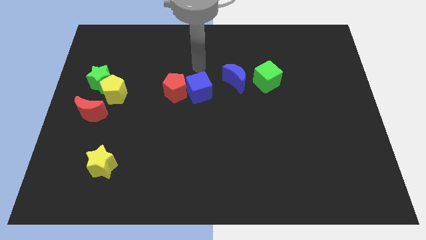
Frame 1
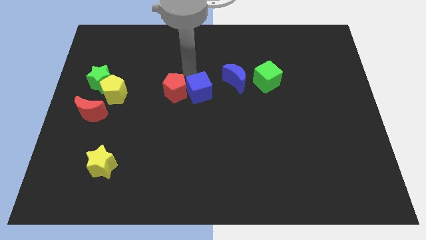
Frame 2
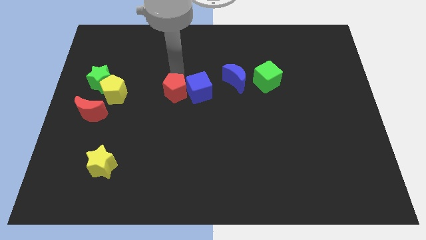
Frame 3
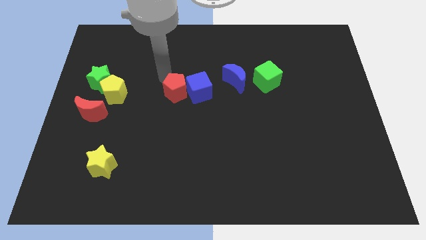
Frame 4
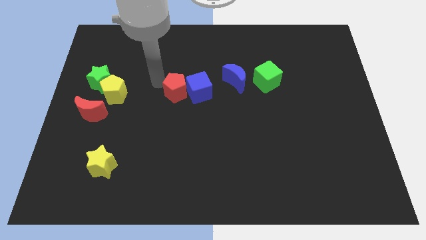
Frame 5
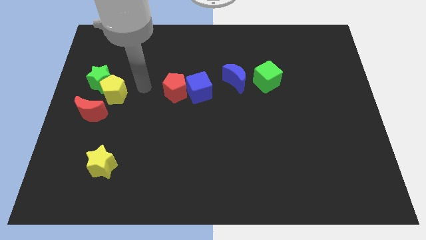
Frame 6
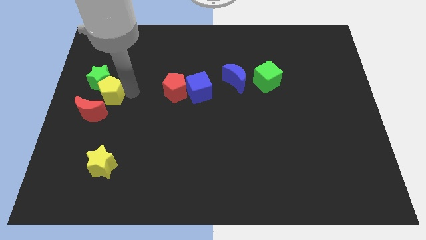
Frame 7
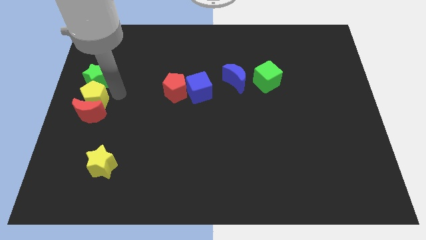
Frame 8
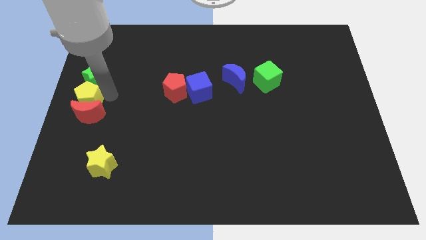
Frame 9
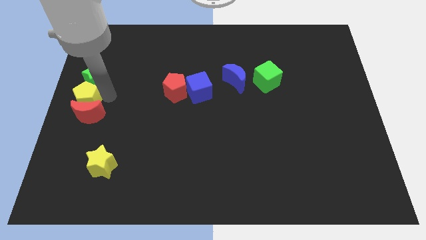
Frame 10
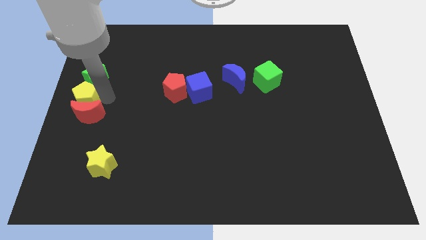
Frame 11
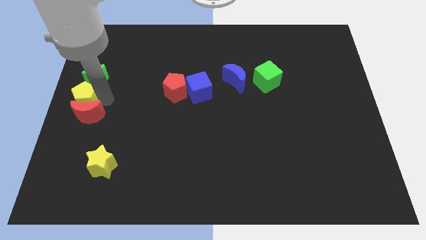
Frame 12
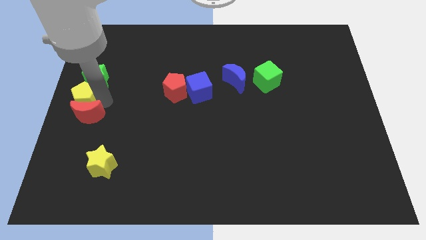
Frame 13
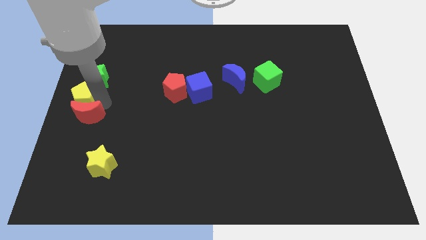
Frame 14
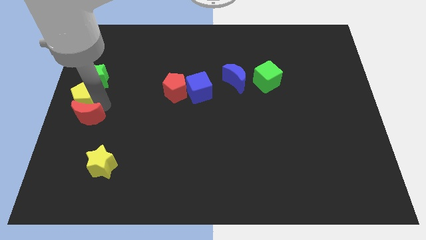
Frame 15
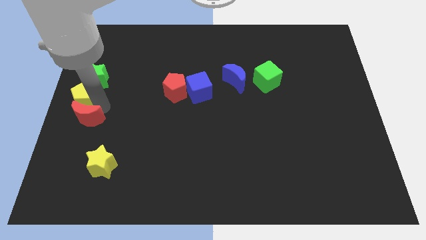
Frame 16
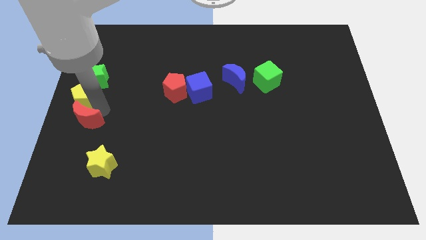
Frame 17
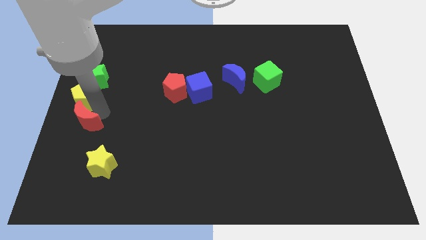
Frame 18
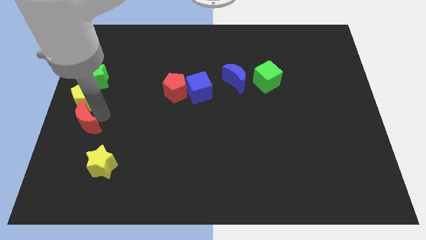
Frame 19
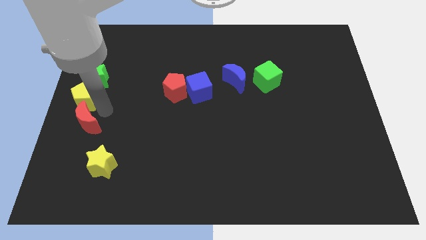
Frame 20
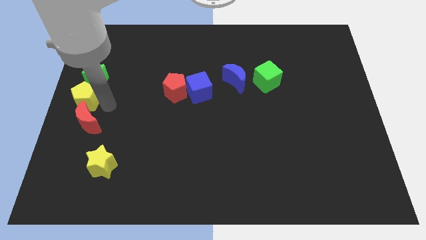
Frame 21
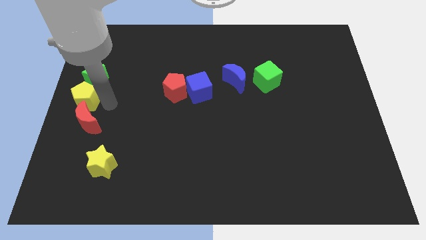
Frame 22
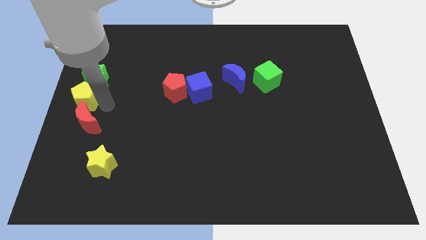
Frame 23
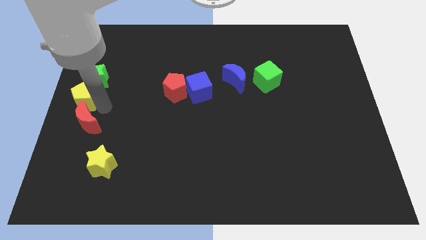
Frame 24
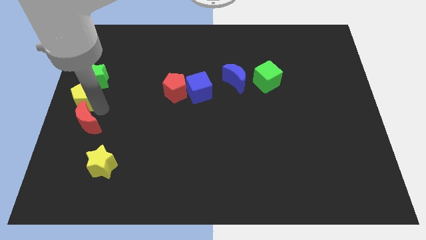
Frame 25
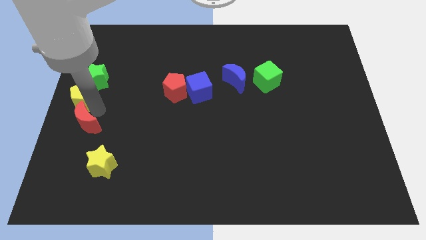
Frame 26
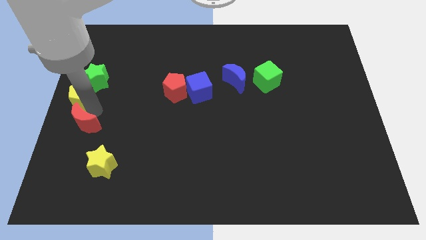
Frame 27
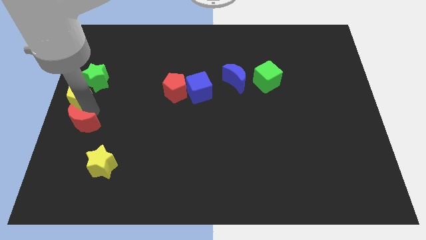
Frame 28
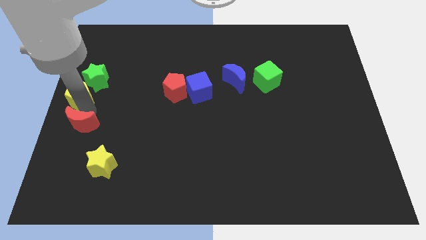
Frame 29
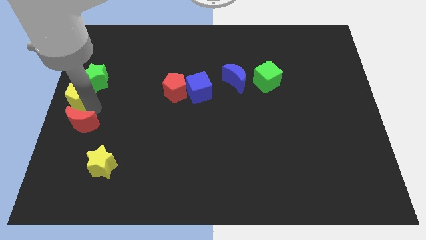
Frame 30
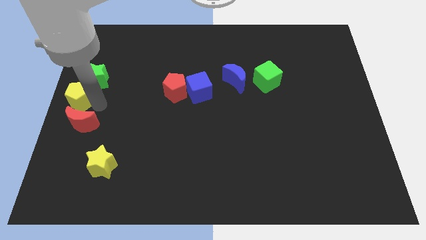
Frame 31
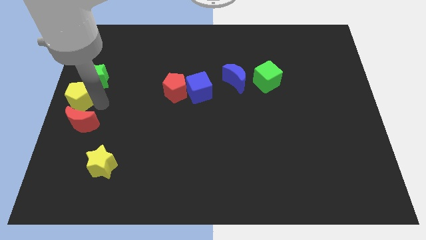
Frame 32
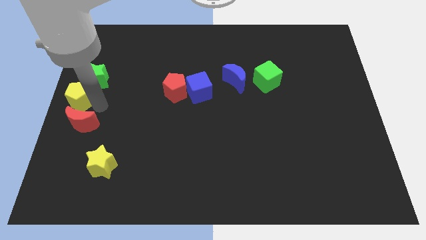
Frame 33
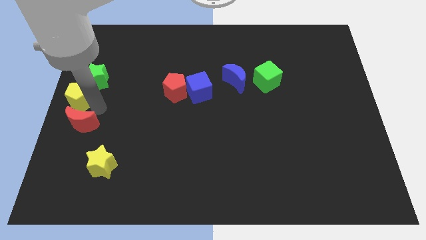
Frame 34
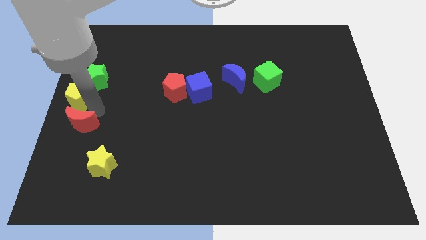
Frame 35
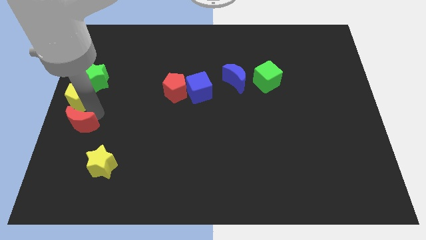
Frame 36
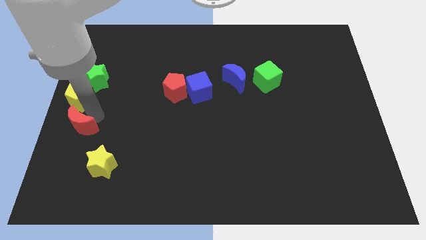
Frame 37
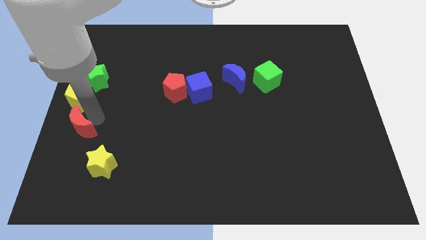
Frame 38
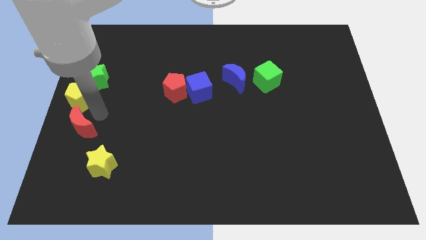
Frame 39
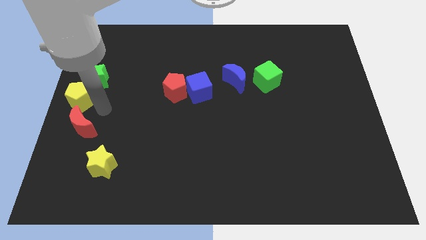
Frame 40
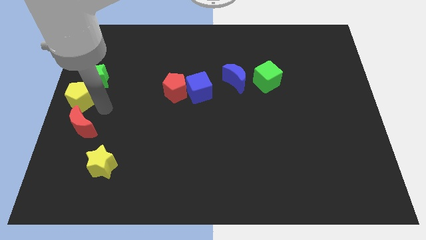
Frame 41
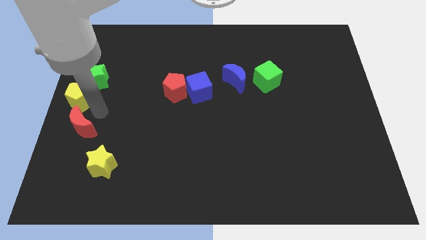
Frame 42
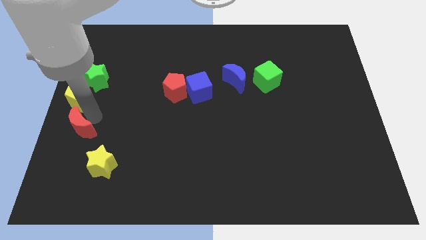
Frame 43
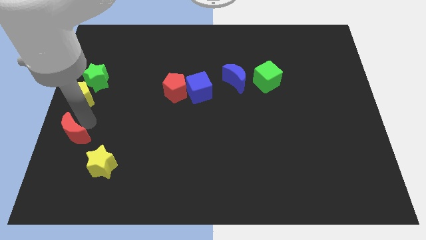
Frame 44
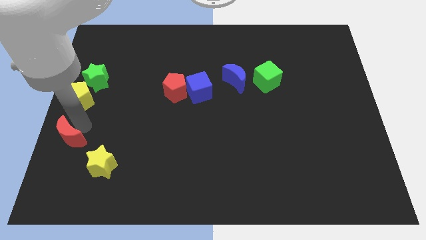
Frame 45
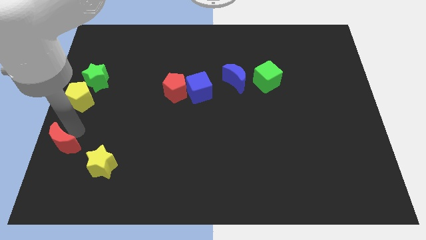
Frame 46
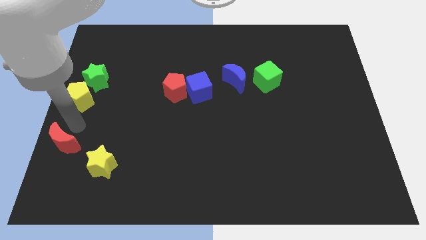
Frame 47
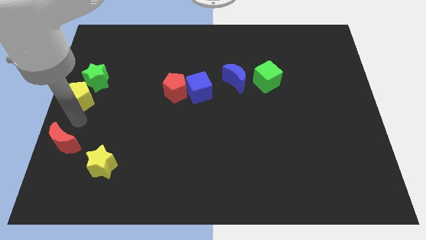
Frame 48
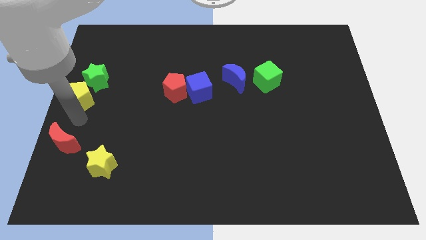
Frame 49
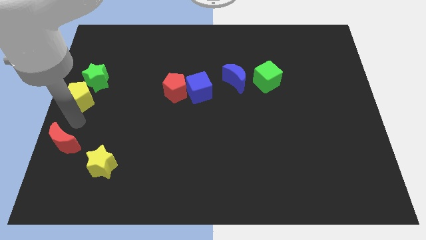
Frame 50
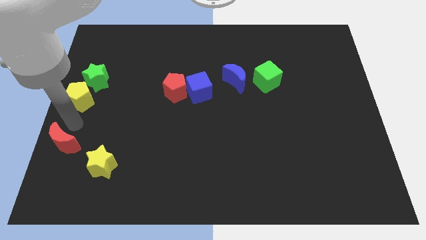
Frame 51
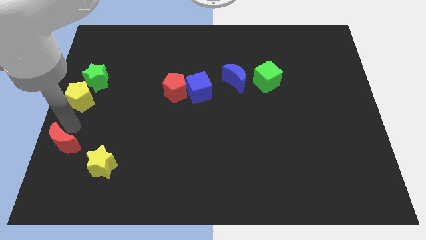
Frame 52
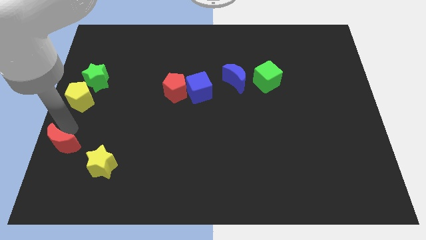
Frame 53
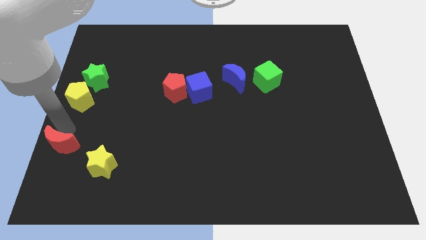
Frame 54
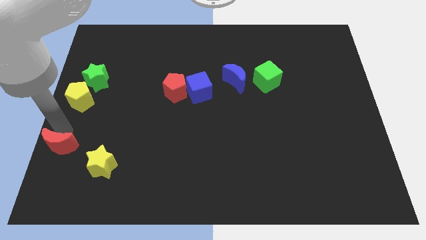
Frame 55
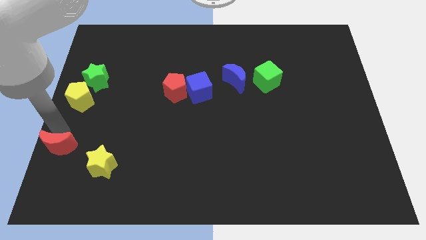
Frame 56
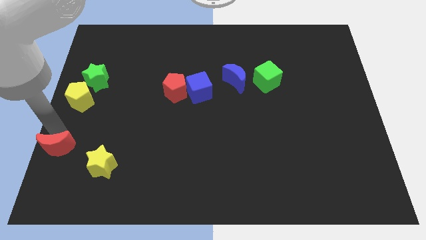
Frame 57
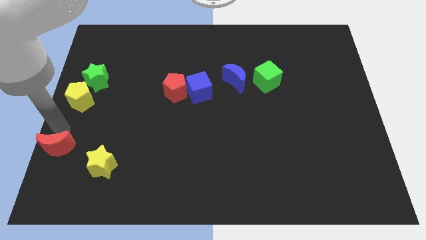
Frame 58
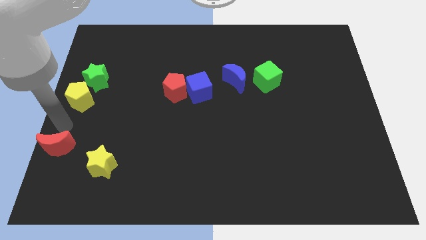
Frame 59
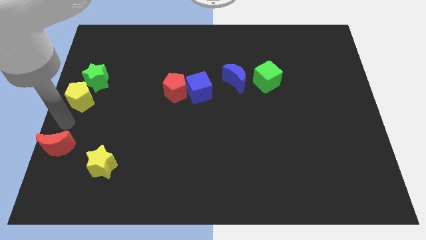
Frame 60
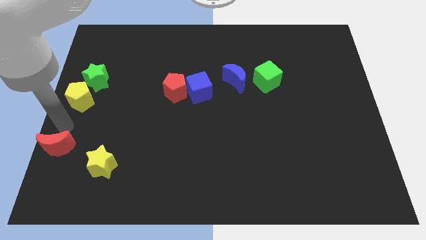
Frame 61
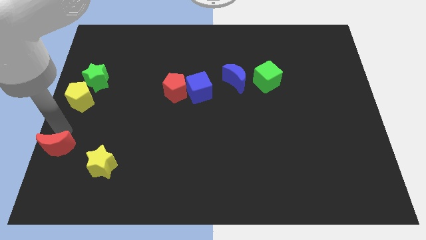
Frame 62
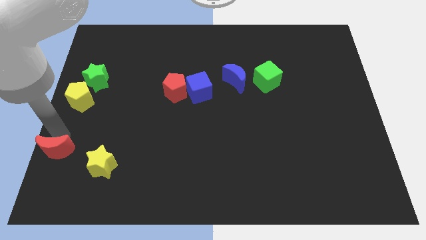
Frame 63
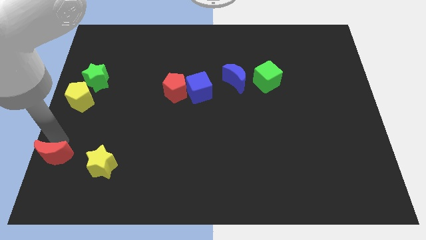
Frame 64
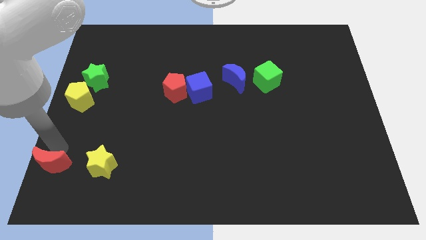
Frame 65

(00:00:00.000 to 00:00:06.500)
push the red moon to the lower left corner

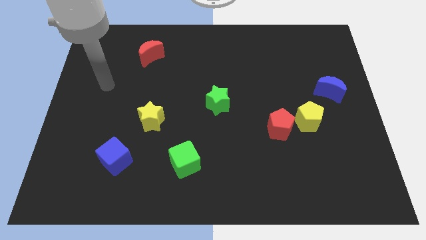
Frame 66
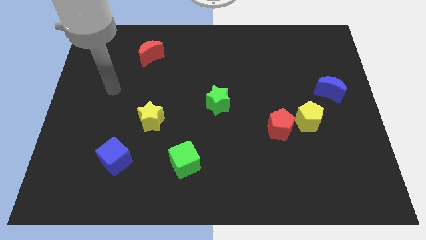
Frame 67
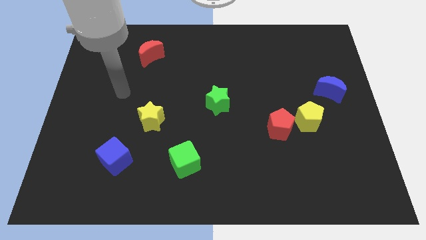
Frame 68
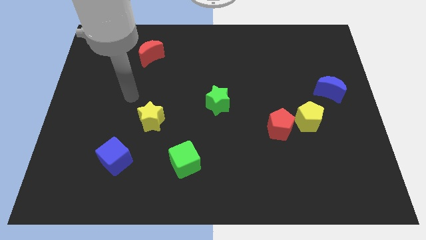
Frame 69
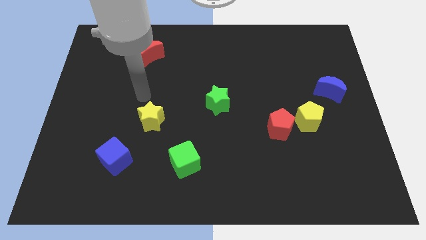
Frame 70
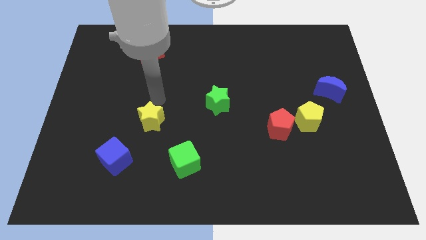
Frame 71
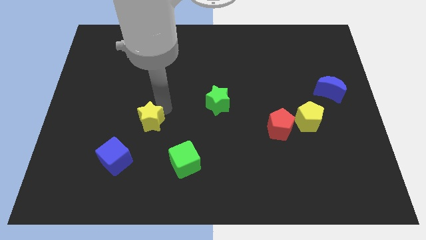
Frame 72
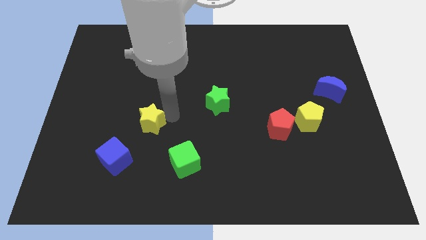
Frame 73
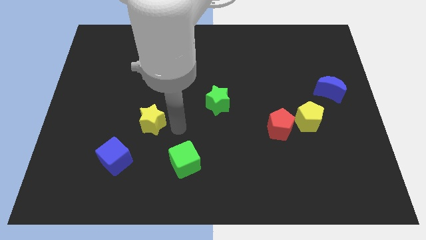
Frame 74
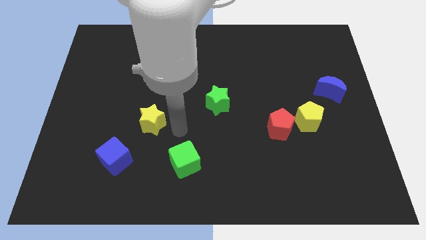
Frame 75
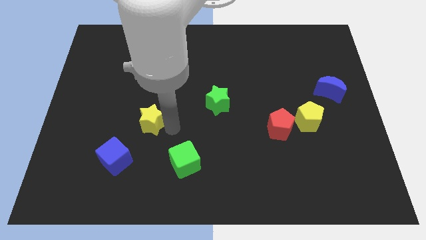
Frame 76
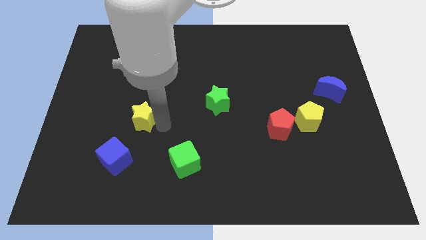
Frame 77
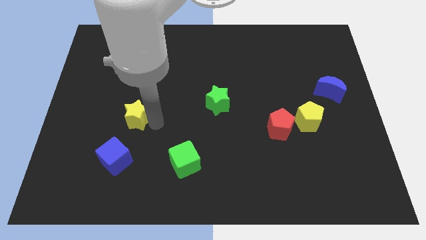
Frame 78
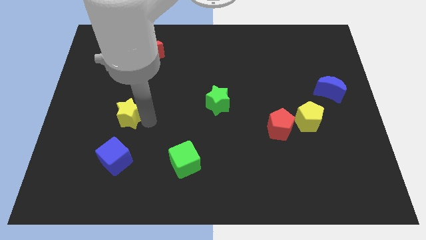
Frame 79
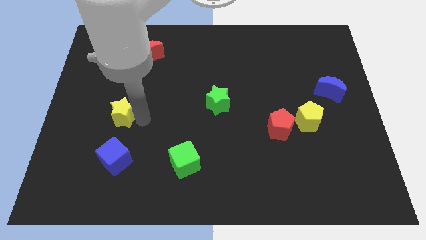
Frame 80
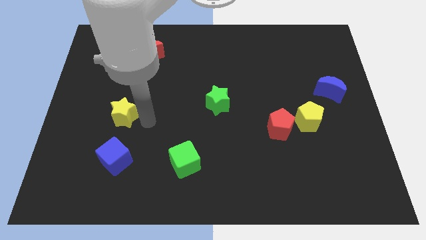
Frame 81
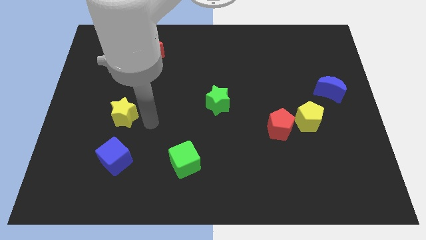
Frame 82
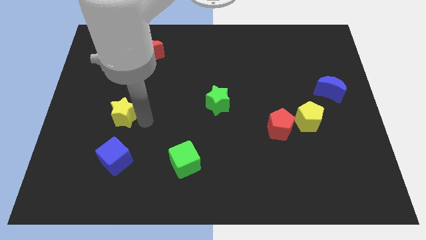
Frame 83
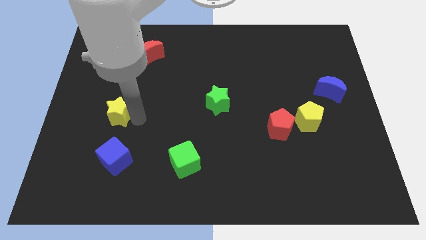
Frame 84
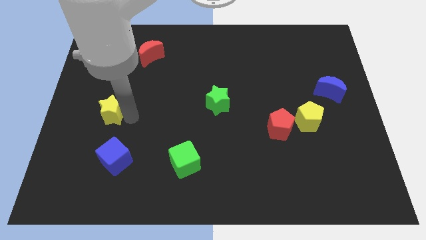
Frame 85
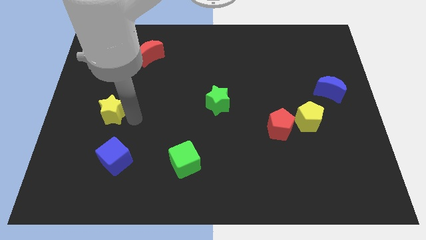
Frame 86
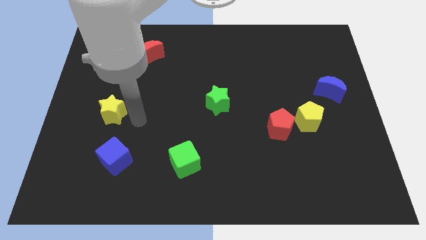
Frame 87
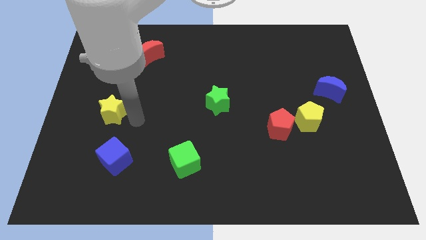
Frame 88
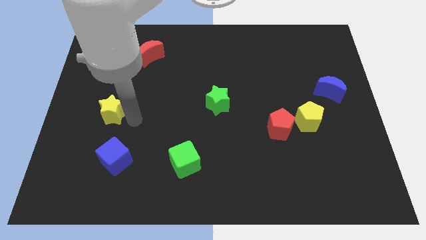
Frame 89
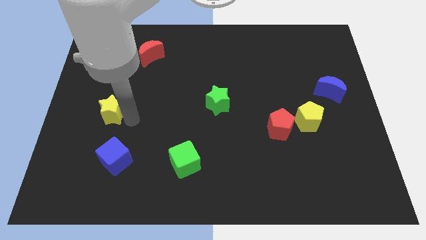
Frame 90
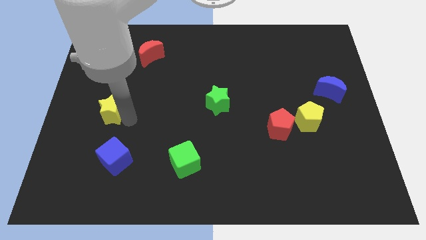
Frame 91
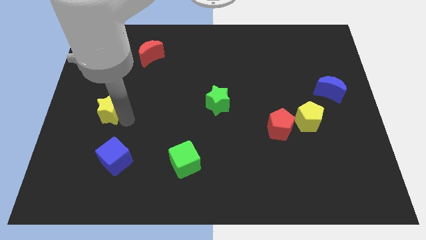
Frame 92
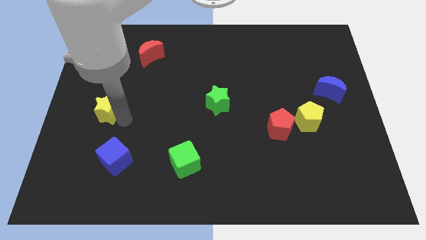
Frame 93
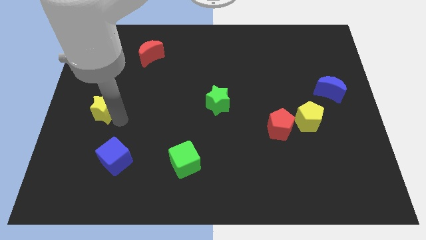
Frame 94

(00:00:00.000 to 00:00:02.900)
slide the yellow star to the center left
